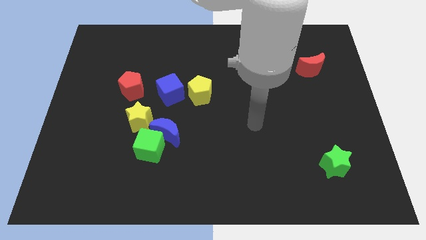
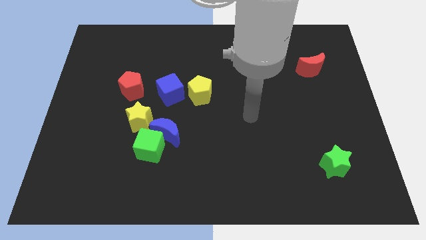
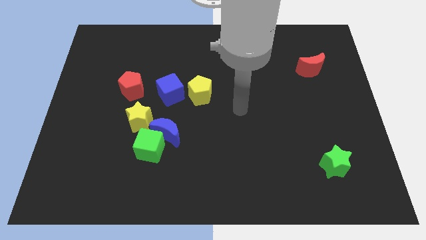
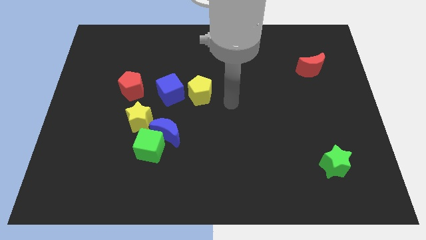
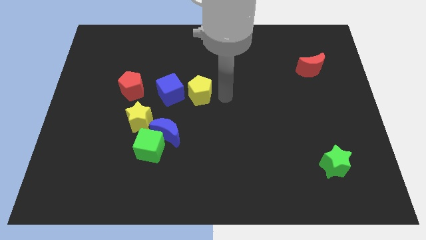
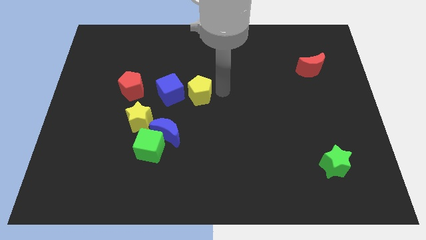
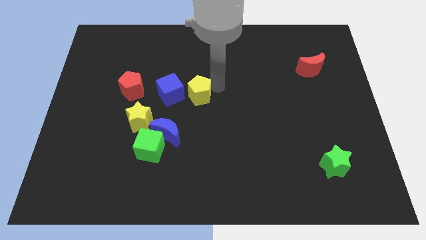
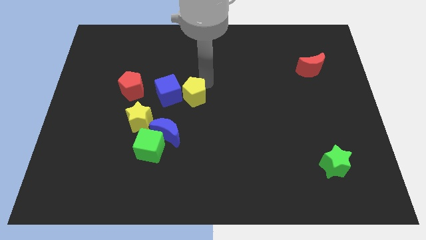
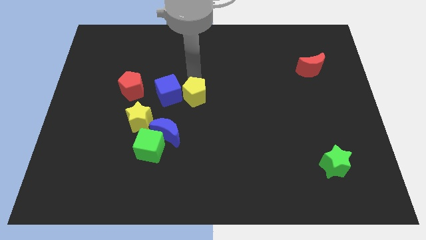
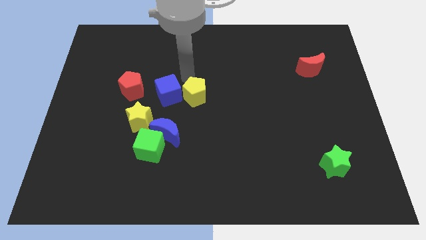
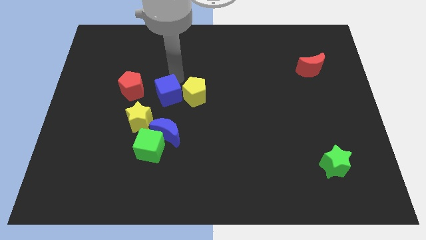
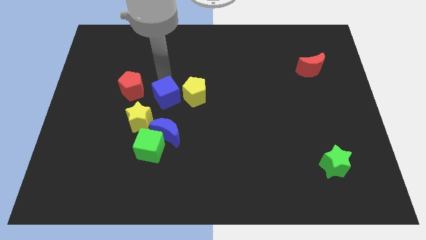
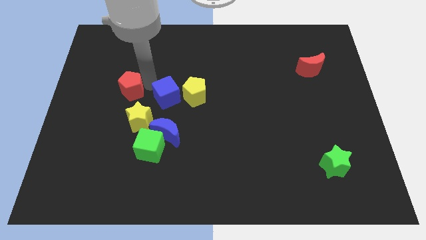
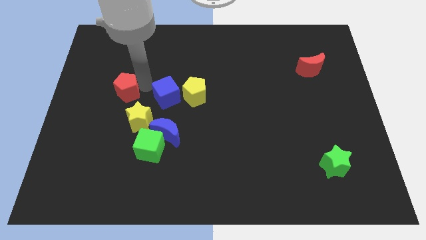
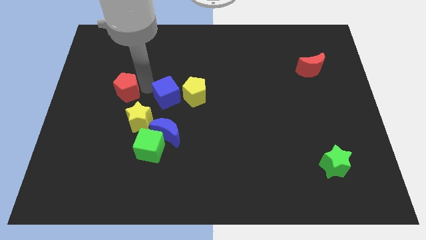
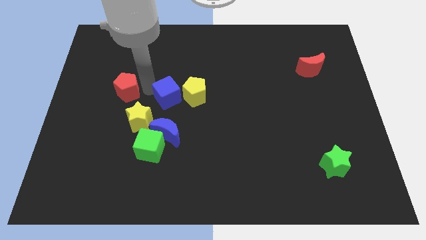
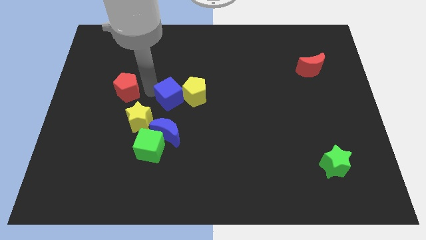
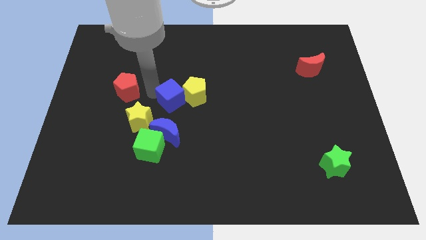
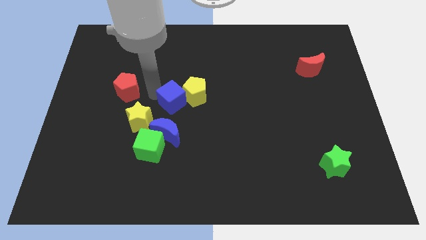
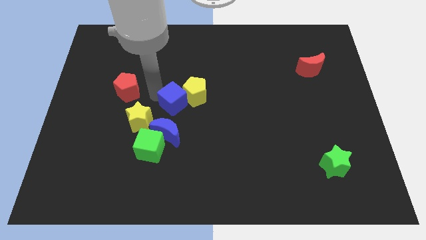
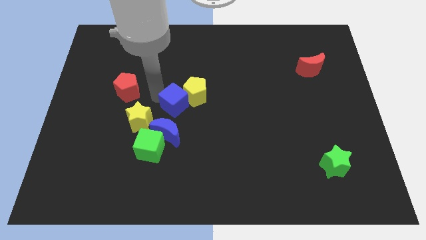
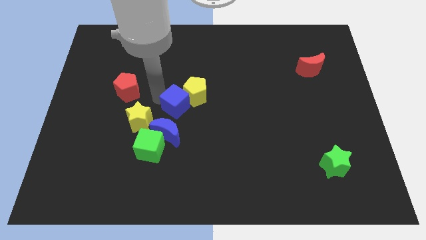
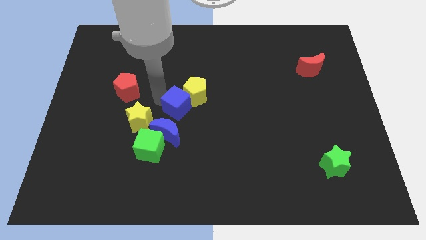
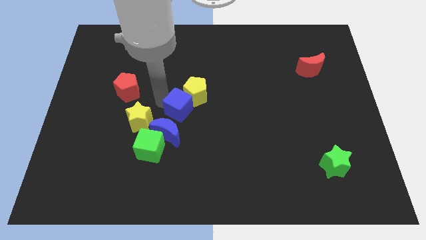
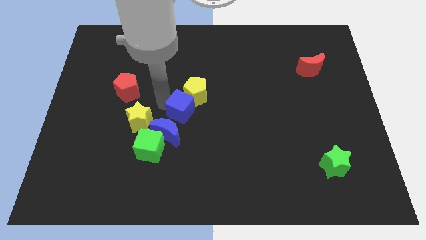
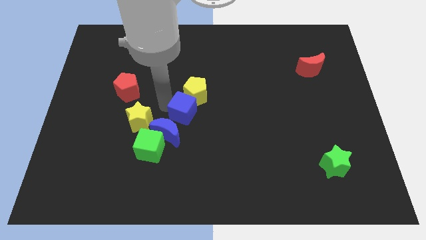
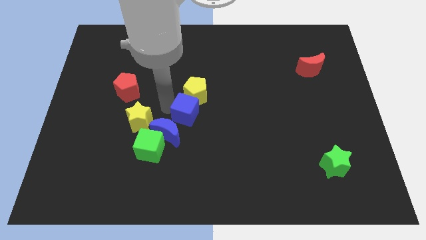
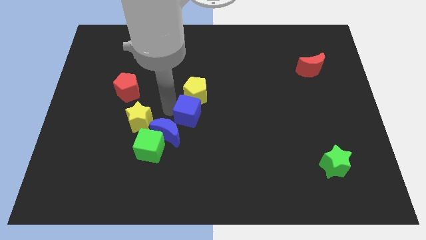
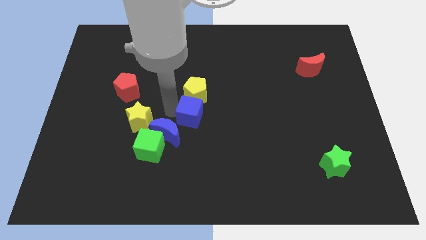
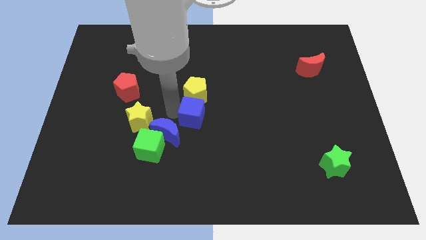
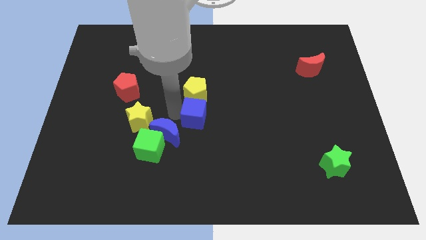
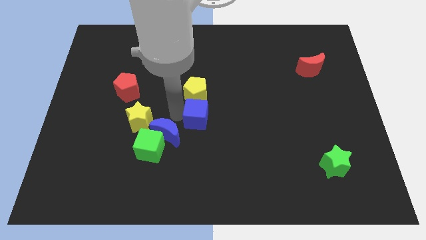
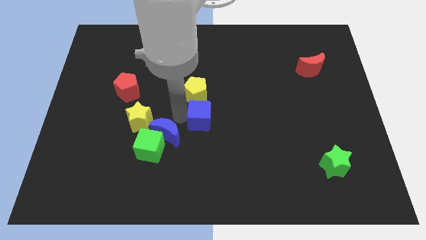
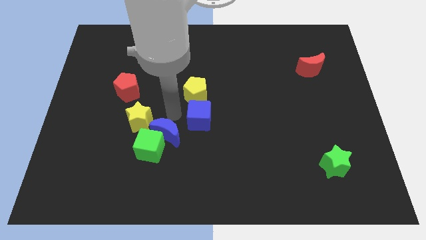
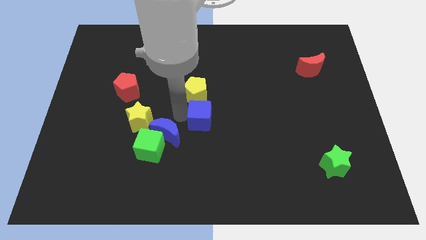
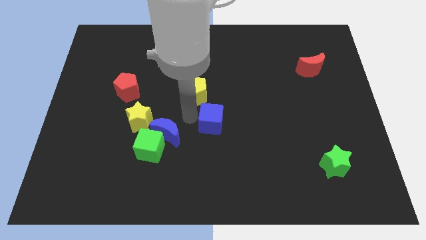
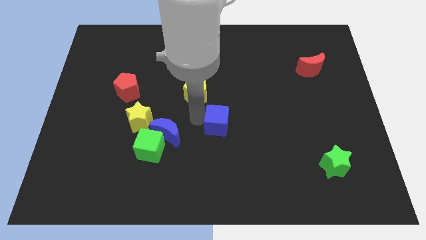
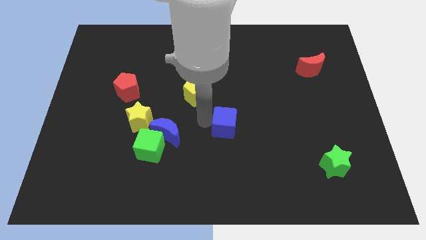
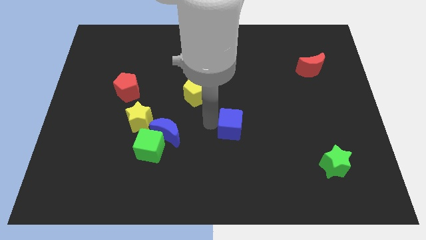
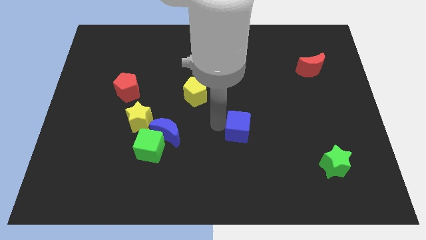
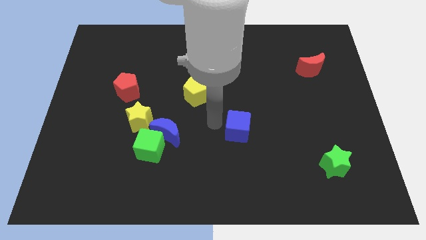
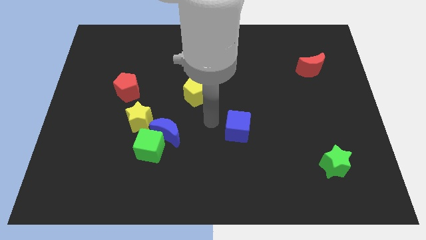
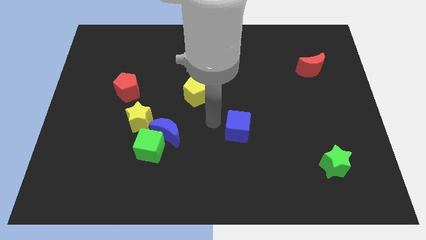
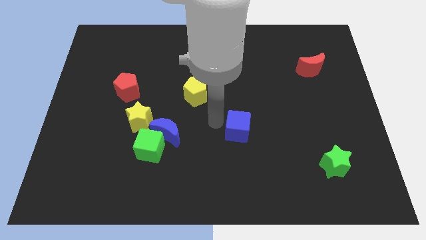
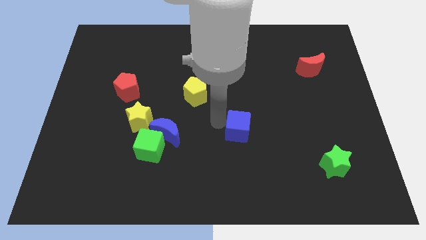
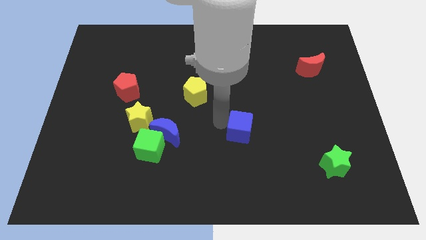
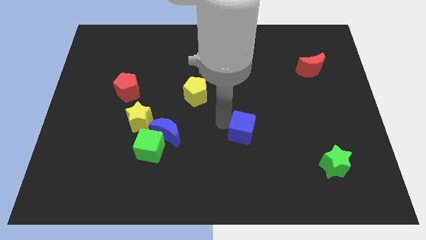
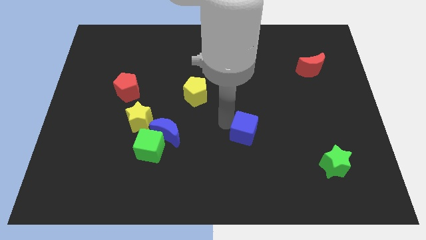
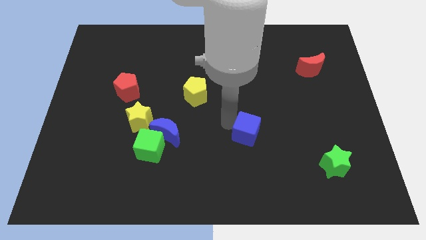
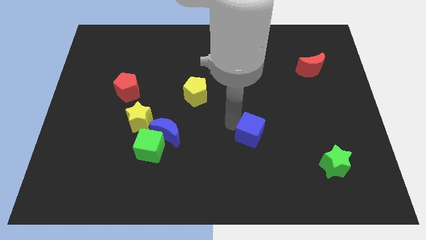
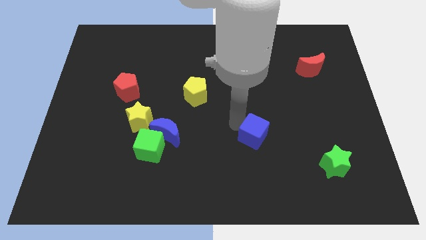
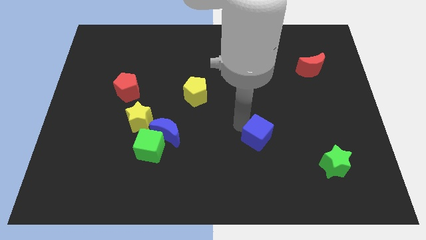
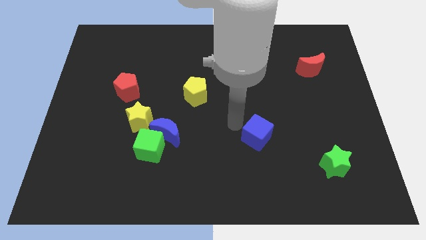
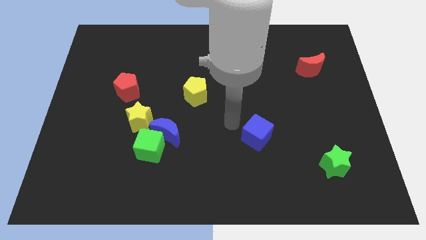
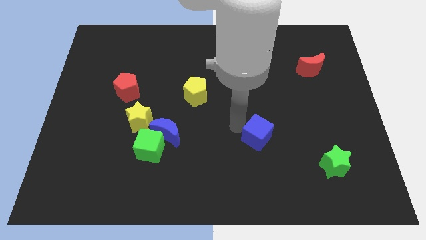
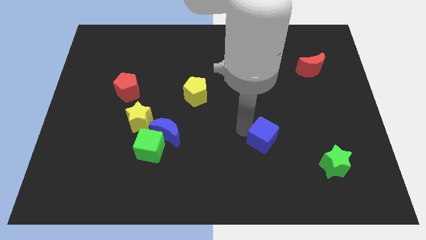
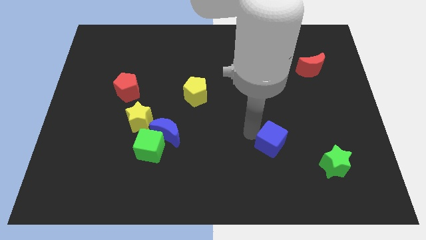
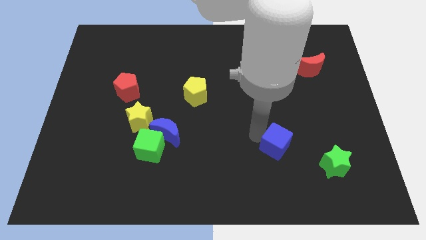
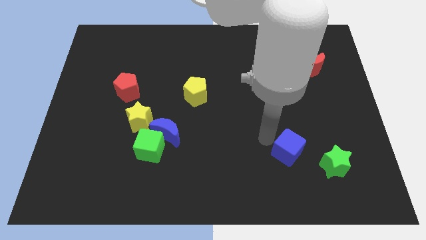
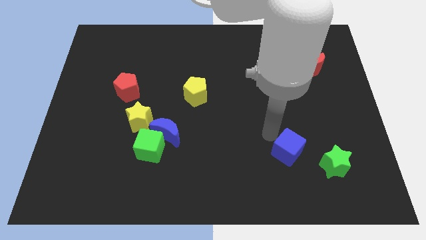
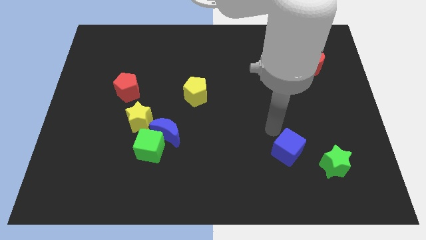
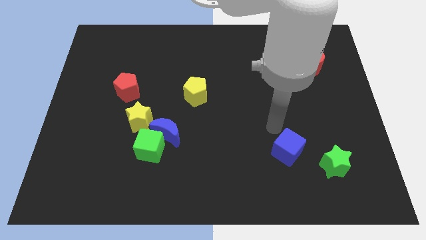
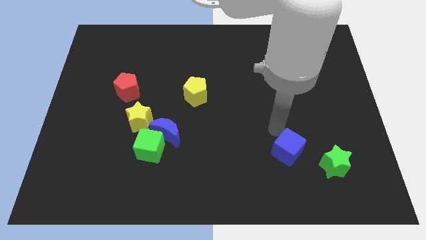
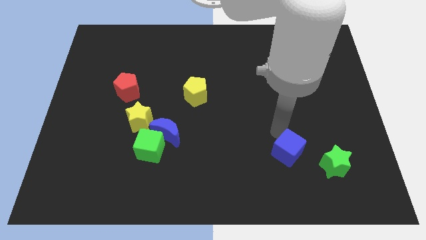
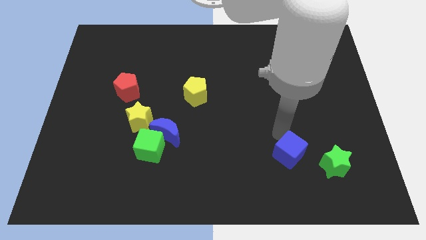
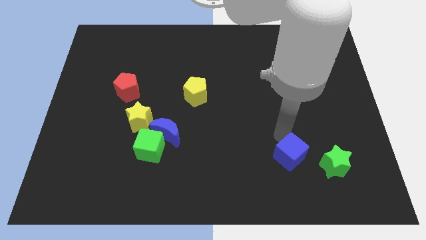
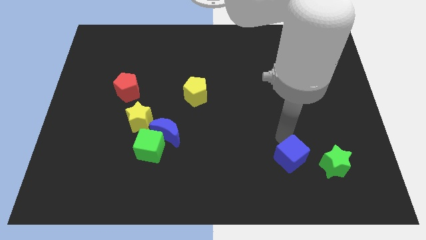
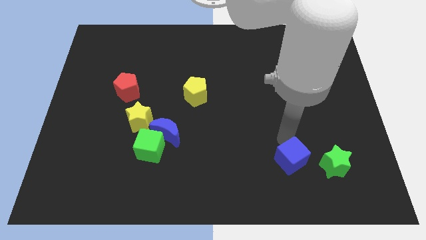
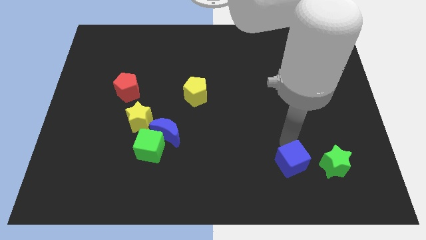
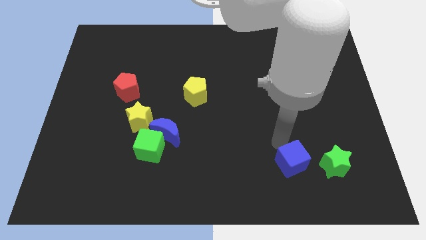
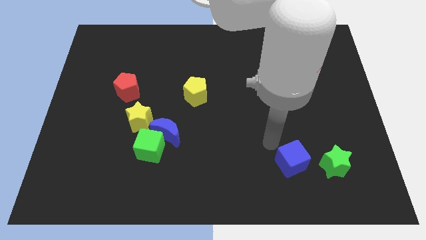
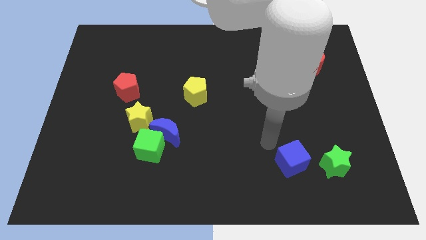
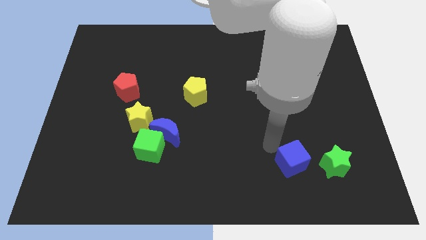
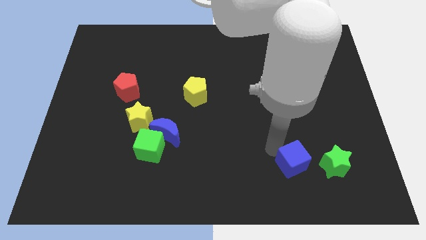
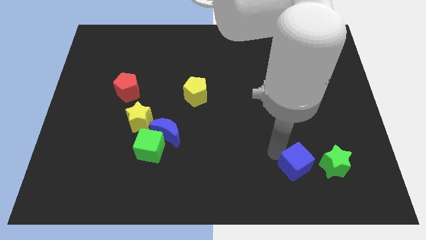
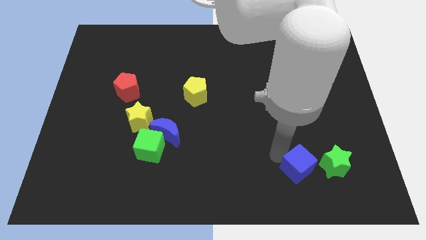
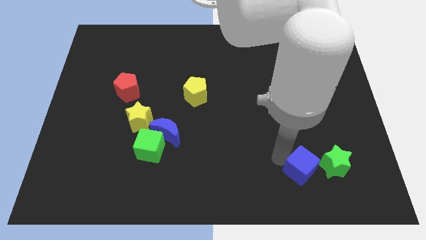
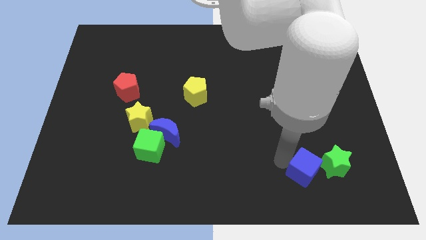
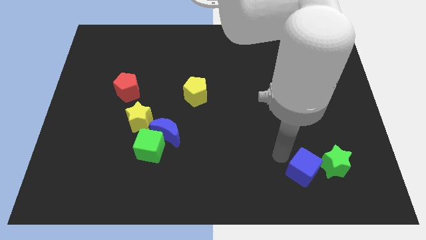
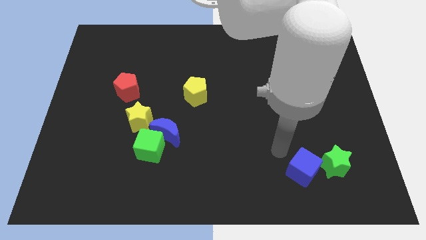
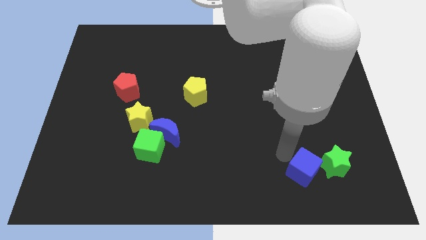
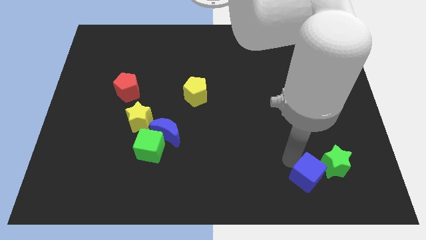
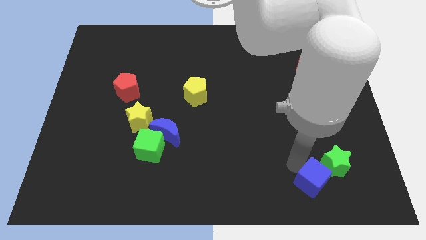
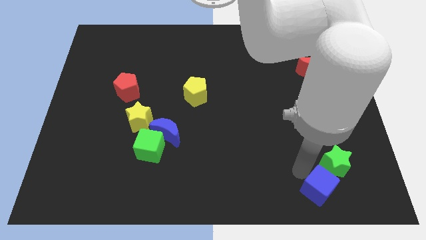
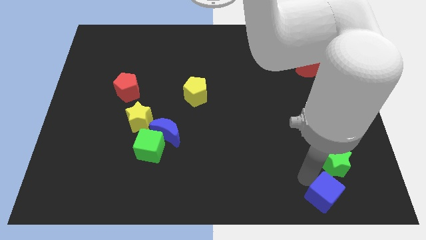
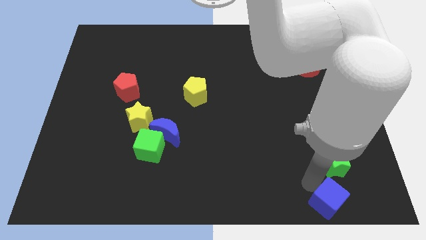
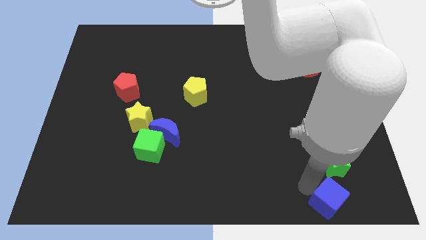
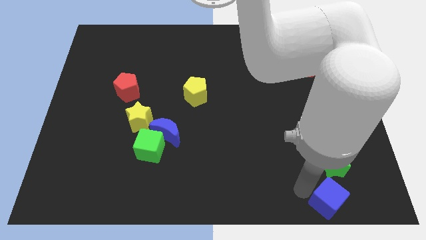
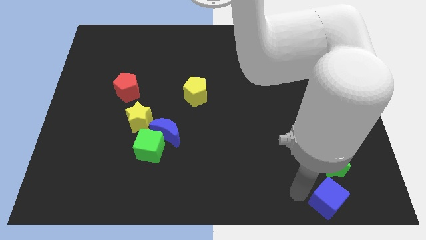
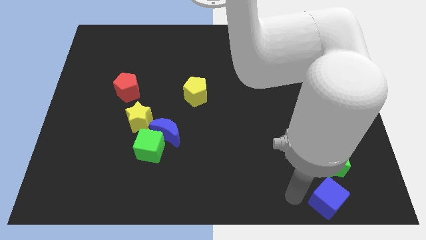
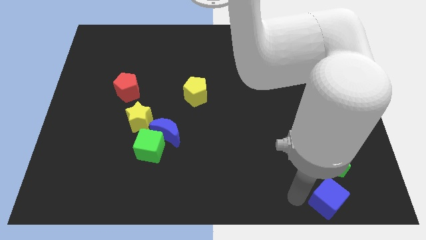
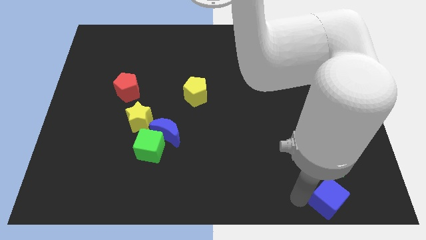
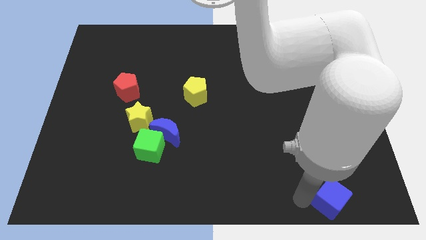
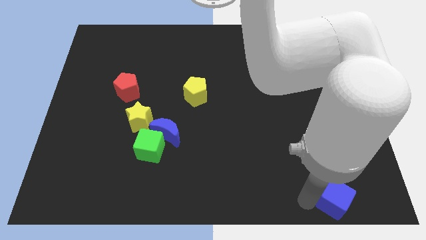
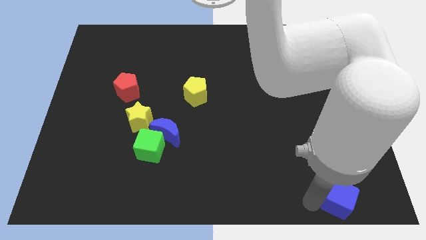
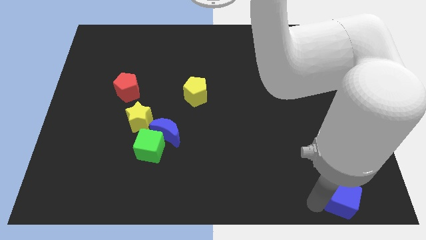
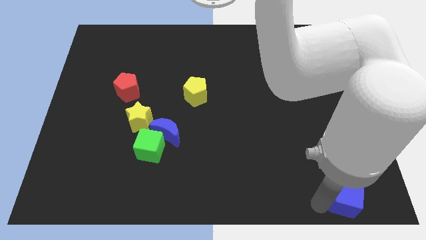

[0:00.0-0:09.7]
slide the blue cube to the bottom right of the board
